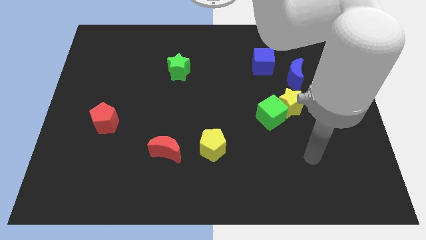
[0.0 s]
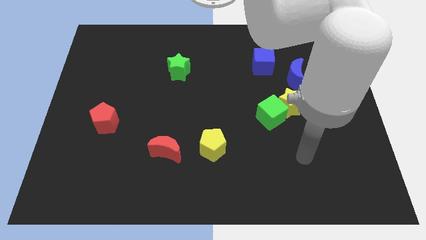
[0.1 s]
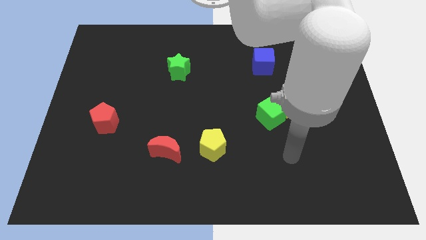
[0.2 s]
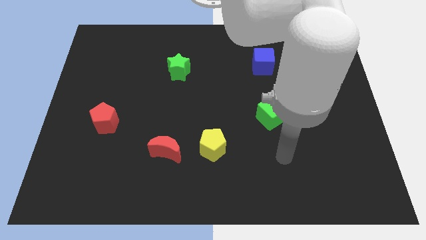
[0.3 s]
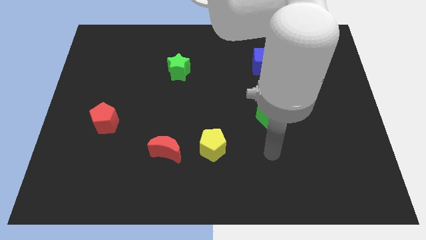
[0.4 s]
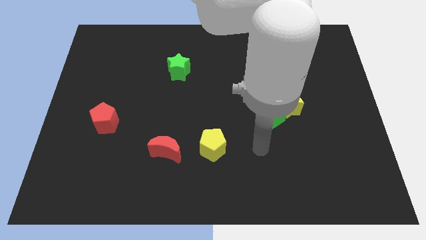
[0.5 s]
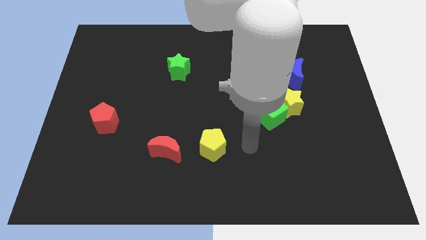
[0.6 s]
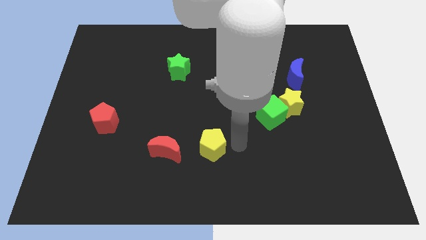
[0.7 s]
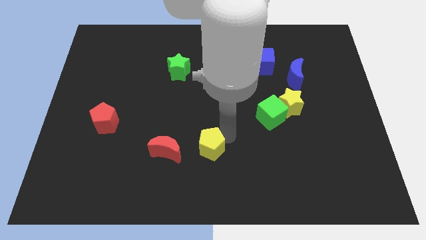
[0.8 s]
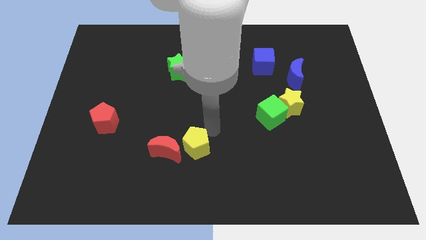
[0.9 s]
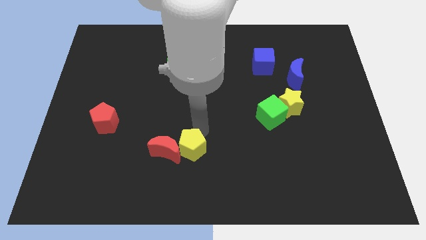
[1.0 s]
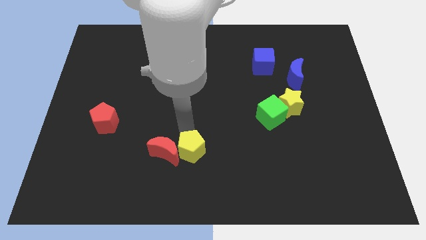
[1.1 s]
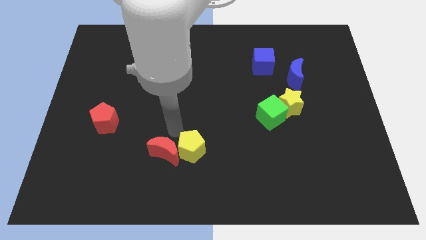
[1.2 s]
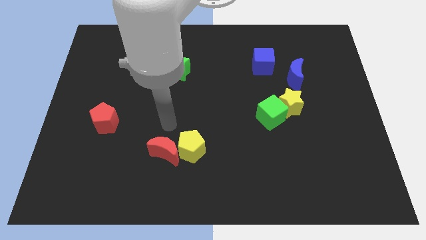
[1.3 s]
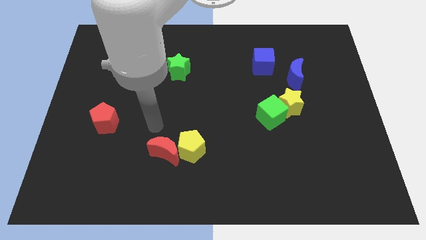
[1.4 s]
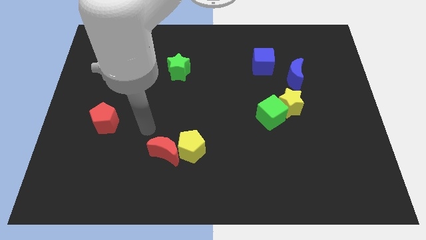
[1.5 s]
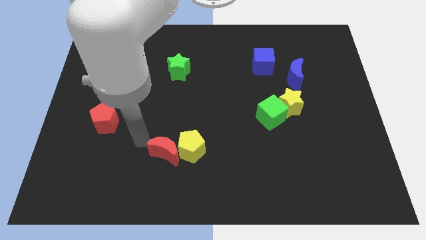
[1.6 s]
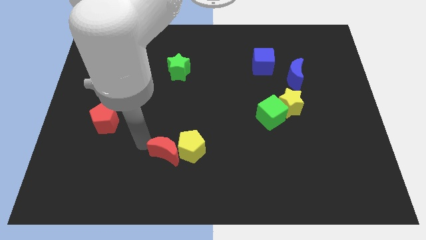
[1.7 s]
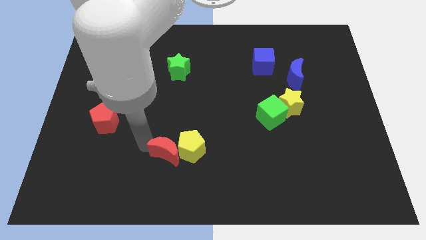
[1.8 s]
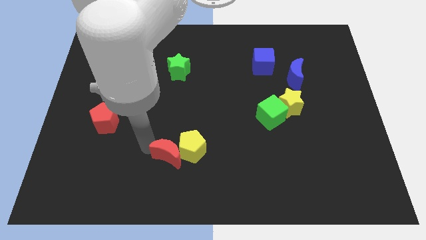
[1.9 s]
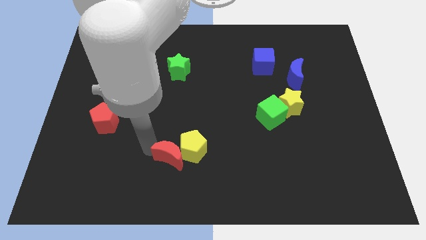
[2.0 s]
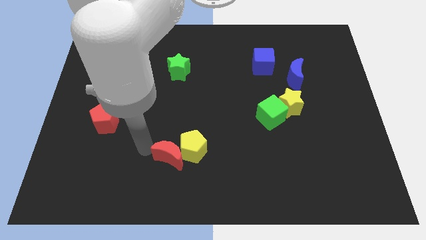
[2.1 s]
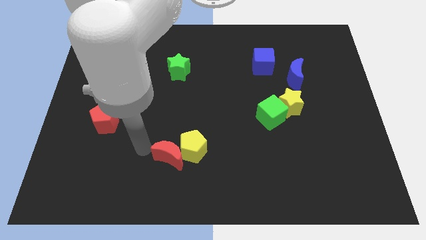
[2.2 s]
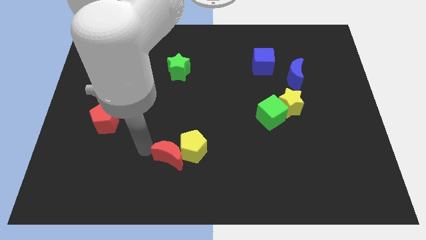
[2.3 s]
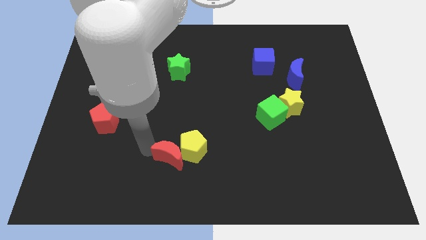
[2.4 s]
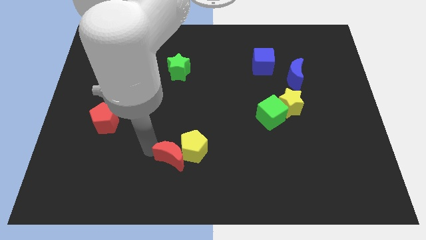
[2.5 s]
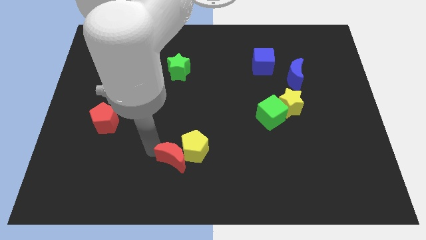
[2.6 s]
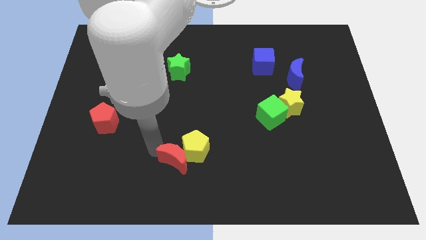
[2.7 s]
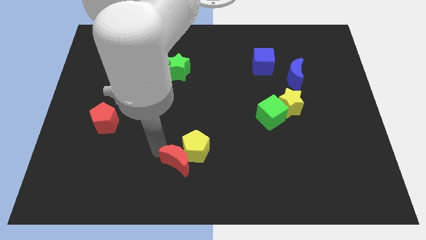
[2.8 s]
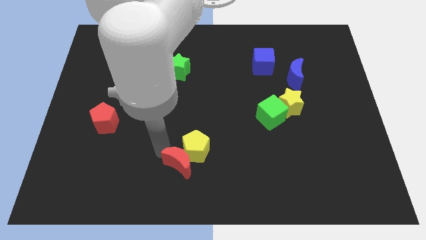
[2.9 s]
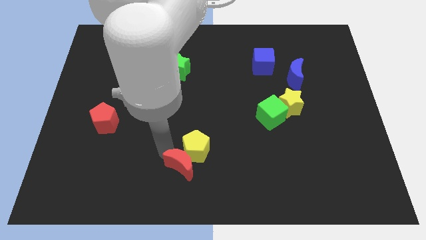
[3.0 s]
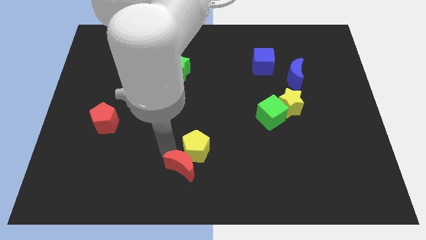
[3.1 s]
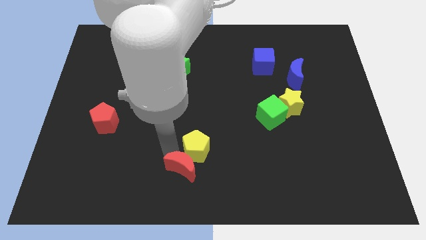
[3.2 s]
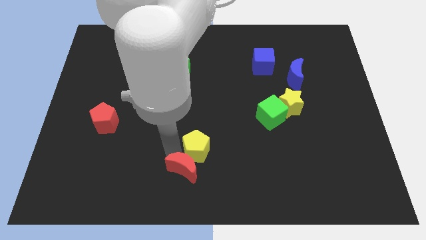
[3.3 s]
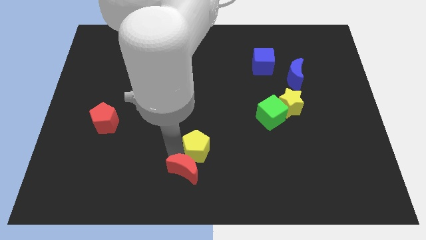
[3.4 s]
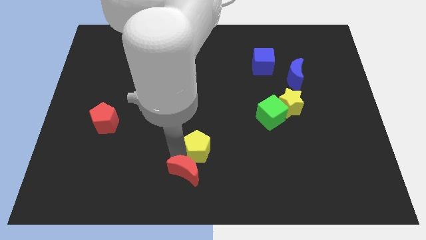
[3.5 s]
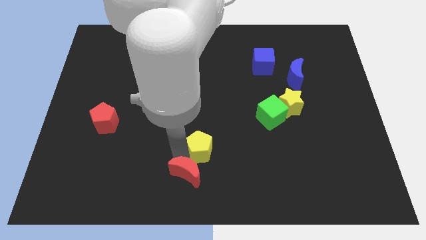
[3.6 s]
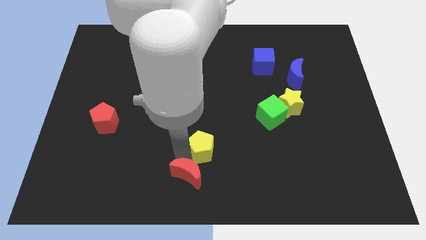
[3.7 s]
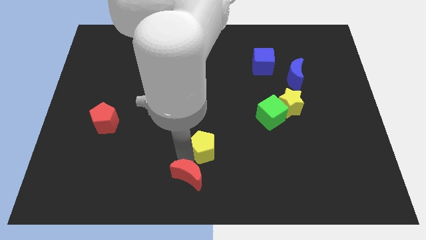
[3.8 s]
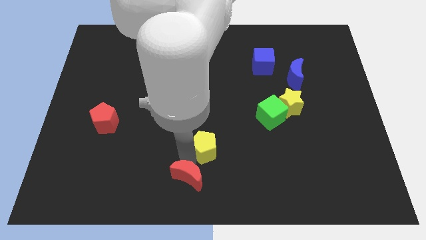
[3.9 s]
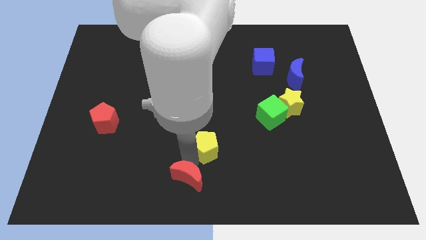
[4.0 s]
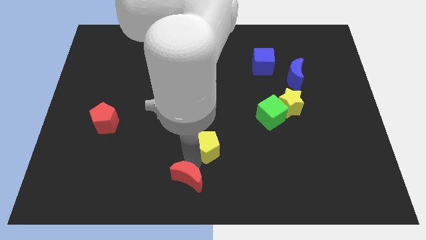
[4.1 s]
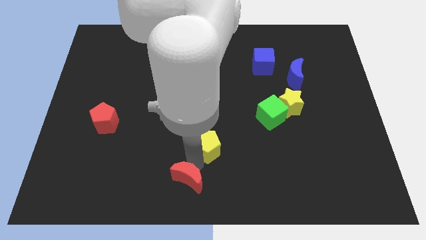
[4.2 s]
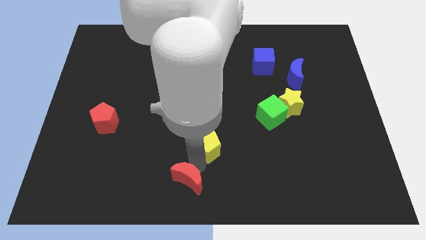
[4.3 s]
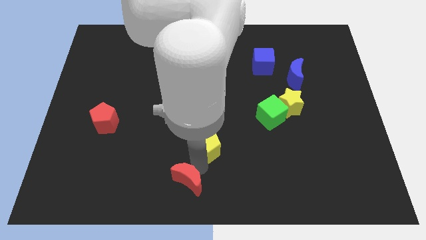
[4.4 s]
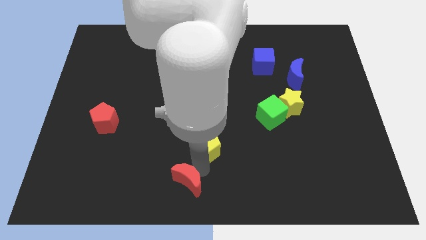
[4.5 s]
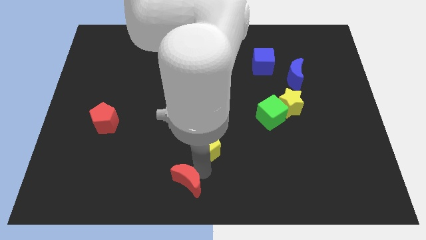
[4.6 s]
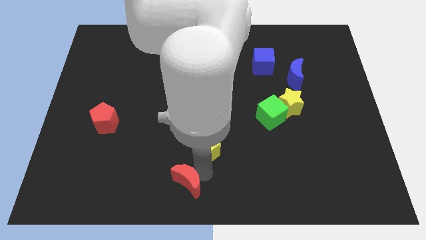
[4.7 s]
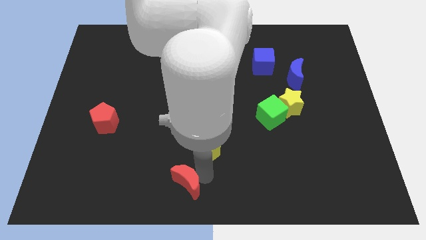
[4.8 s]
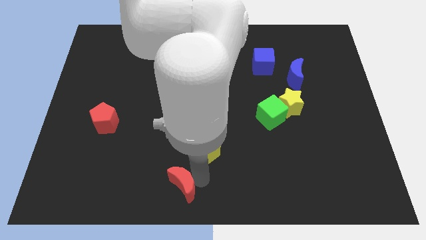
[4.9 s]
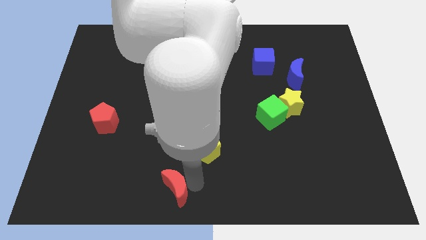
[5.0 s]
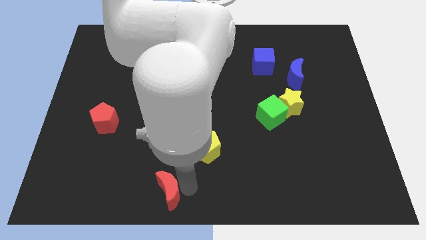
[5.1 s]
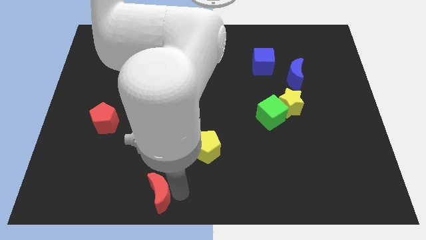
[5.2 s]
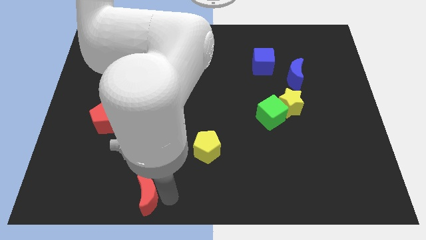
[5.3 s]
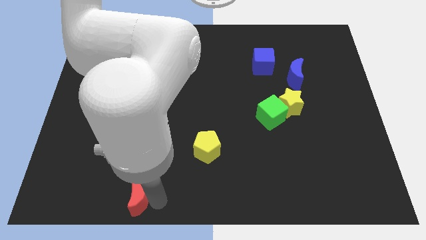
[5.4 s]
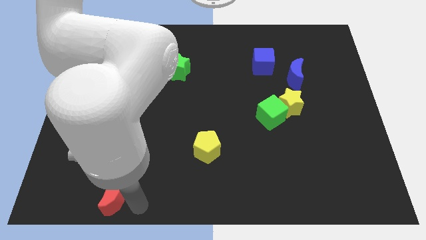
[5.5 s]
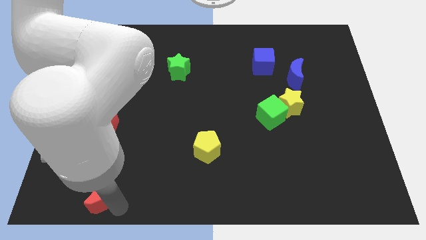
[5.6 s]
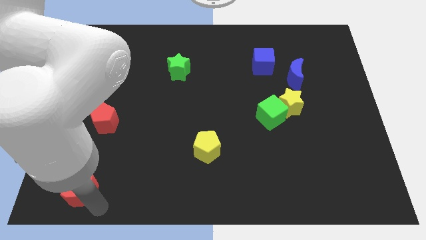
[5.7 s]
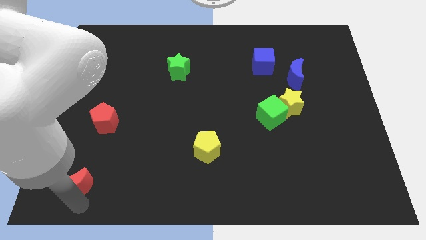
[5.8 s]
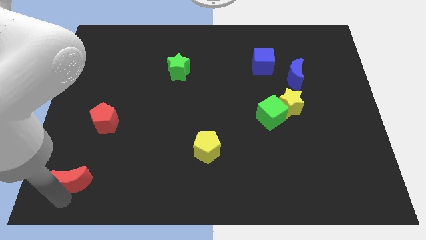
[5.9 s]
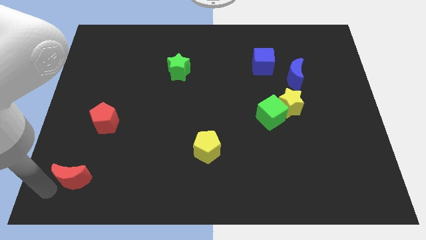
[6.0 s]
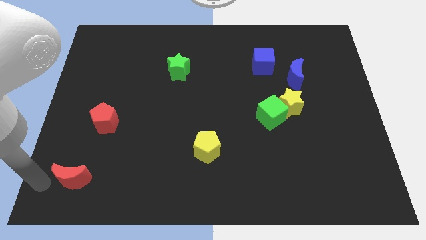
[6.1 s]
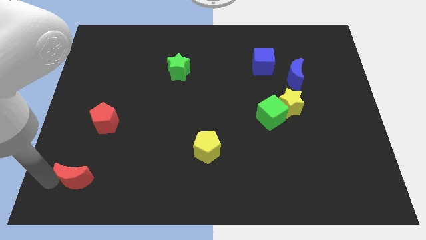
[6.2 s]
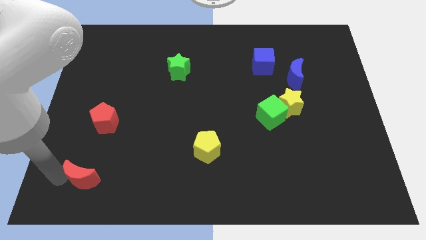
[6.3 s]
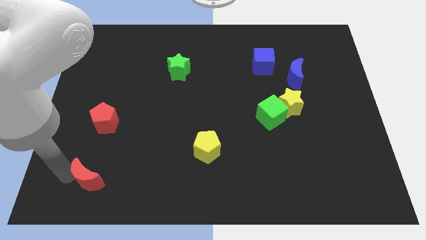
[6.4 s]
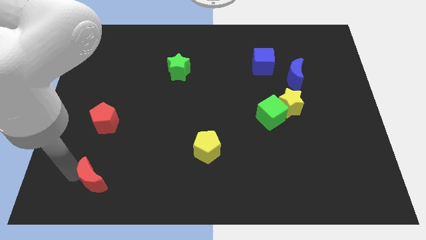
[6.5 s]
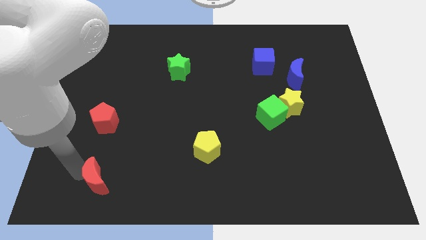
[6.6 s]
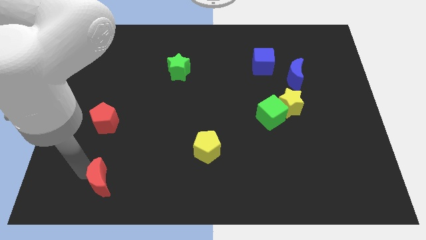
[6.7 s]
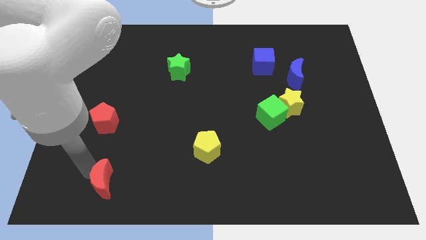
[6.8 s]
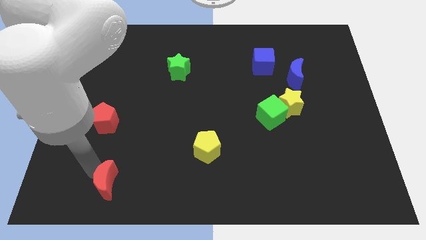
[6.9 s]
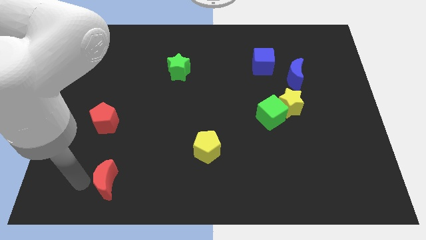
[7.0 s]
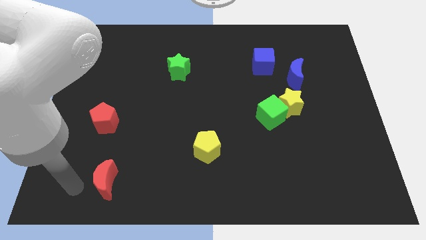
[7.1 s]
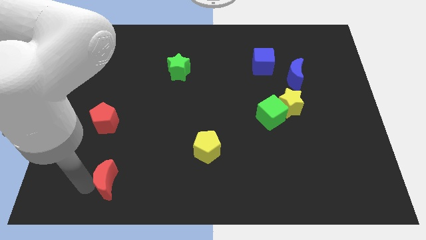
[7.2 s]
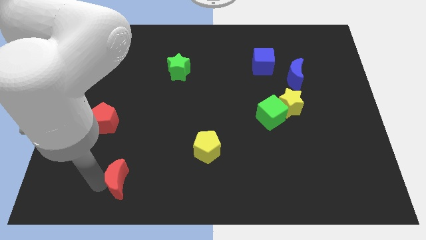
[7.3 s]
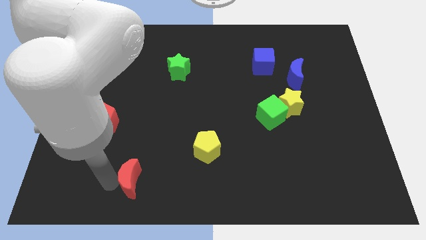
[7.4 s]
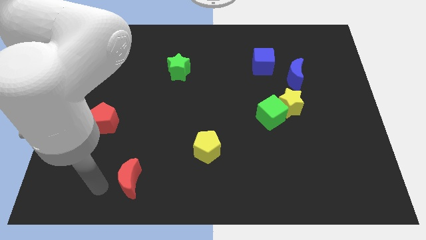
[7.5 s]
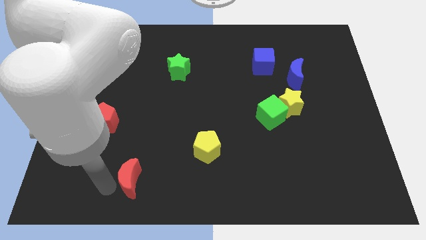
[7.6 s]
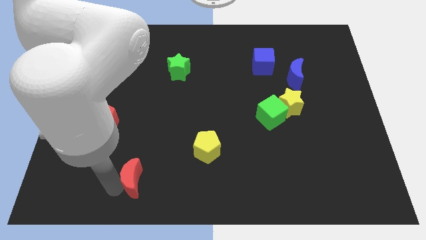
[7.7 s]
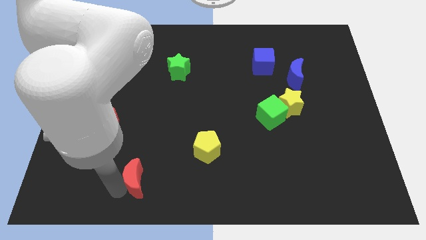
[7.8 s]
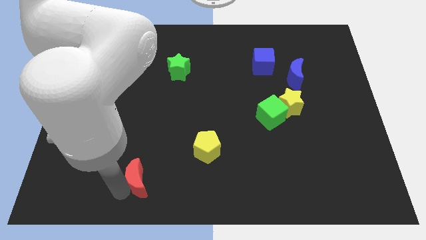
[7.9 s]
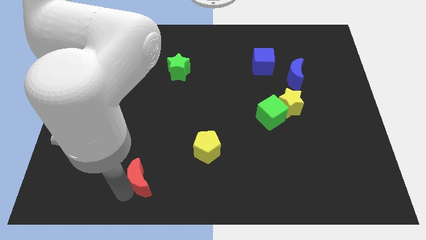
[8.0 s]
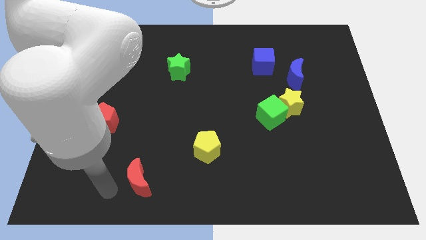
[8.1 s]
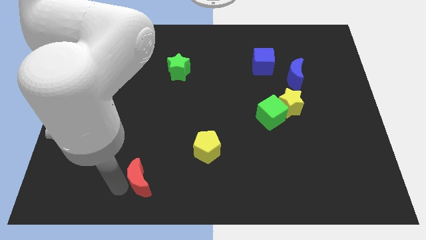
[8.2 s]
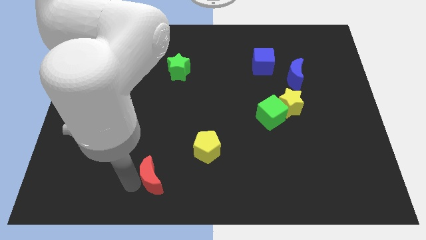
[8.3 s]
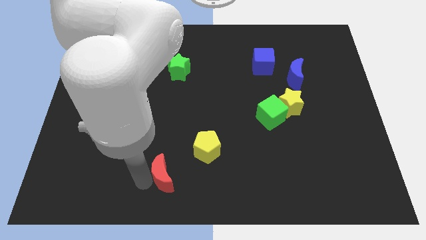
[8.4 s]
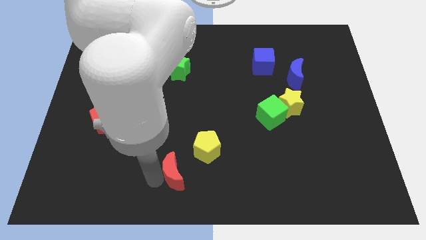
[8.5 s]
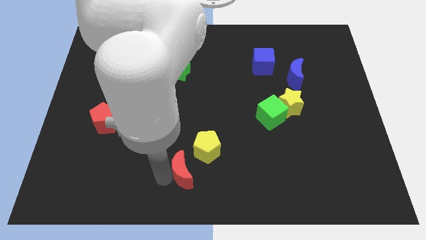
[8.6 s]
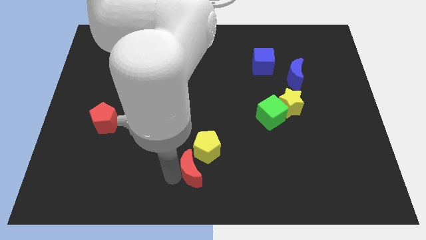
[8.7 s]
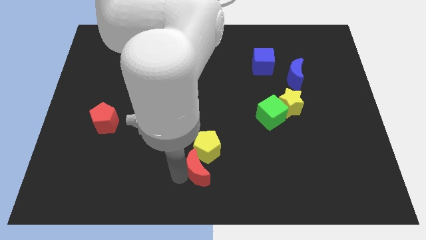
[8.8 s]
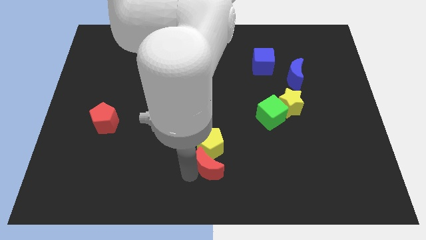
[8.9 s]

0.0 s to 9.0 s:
move the red moon a bit right
